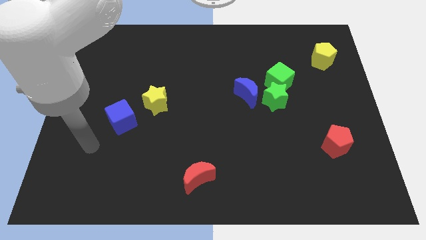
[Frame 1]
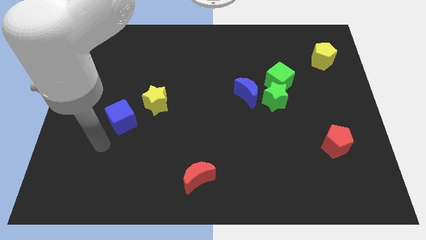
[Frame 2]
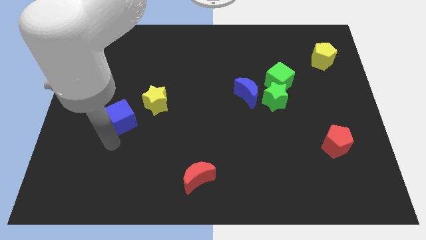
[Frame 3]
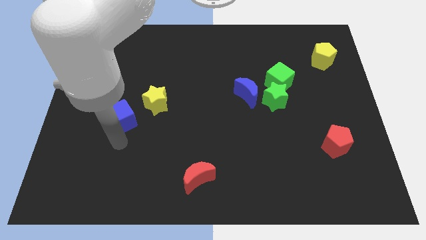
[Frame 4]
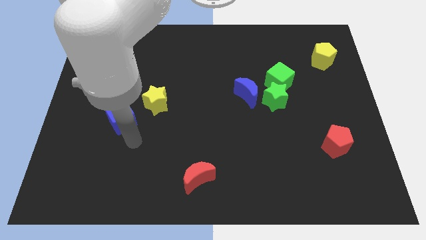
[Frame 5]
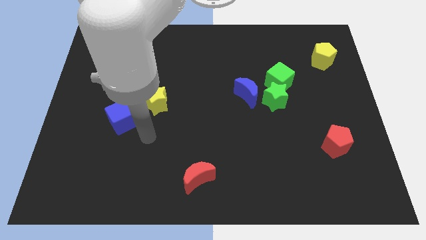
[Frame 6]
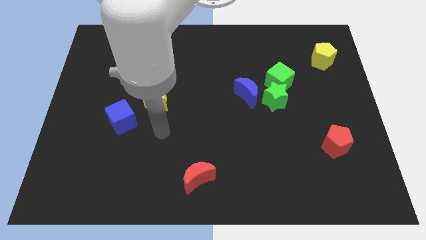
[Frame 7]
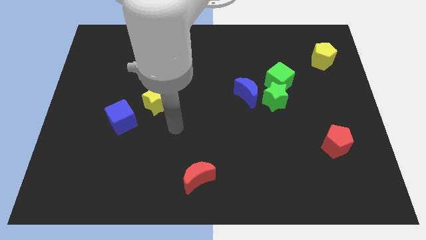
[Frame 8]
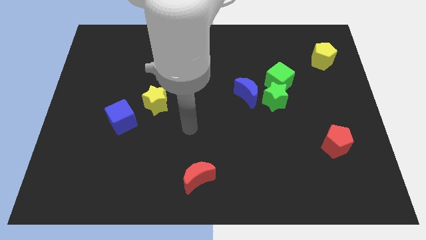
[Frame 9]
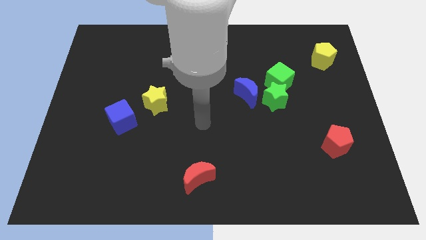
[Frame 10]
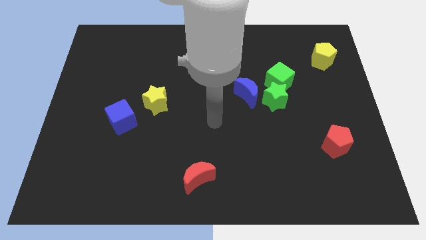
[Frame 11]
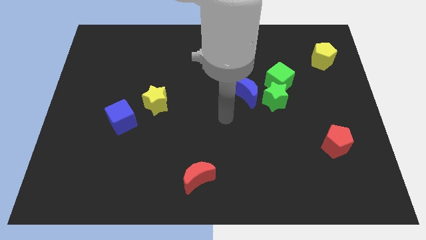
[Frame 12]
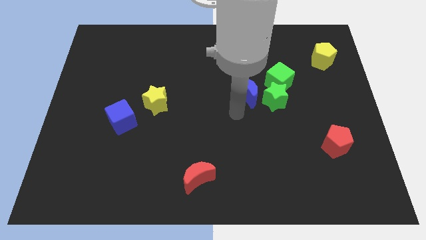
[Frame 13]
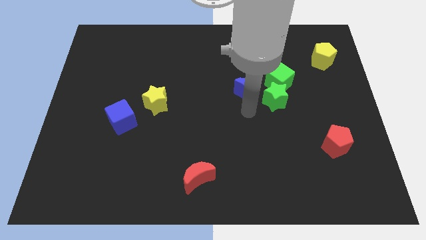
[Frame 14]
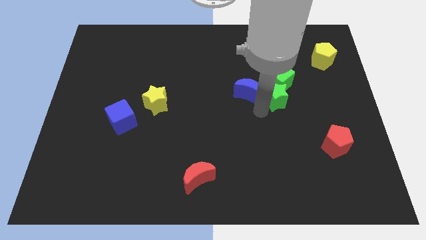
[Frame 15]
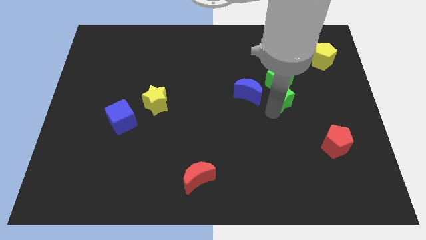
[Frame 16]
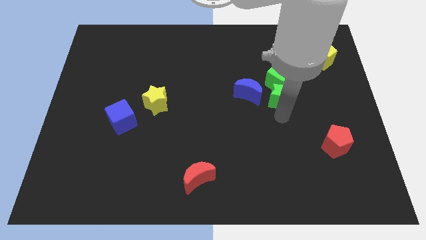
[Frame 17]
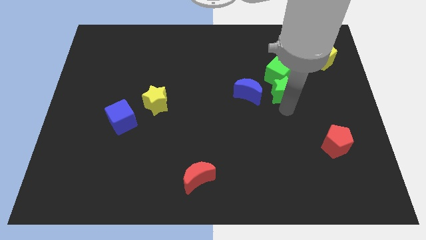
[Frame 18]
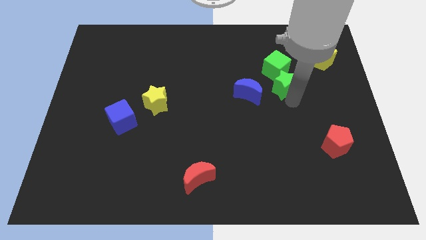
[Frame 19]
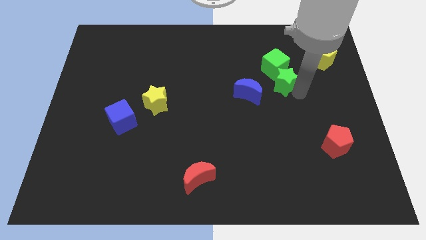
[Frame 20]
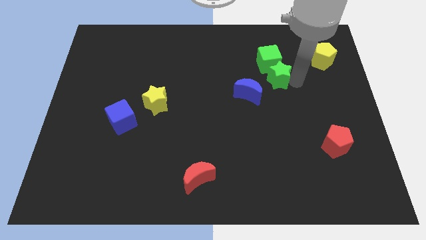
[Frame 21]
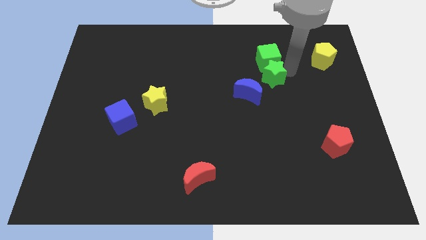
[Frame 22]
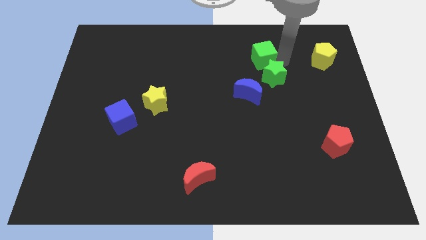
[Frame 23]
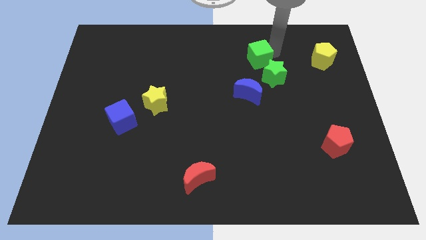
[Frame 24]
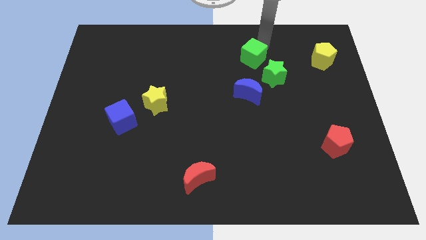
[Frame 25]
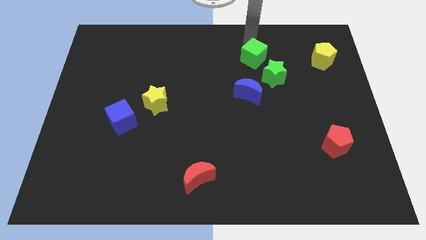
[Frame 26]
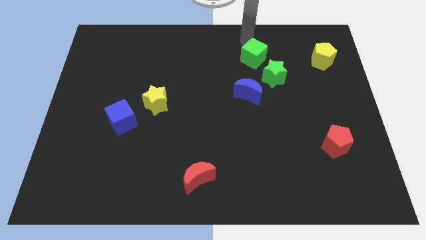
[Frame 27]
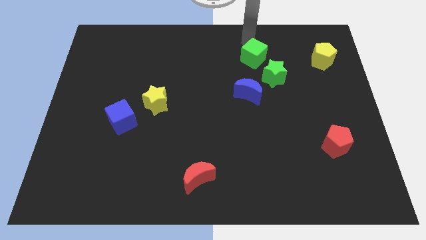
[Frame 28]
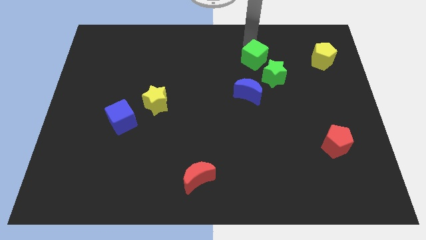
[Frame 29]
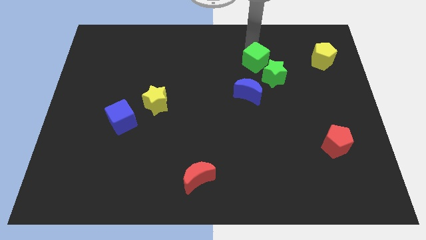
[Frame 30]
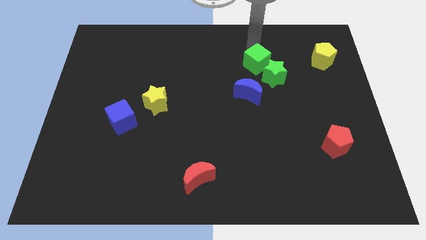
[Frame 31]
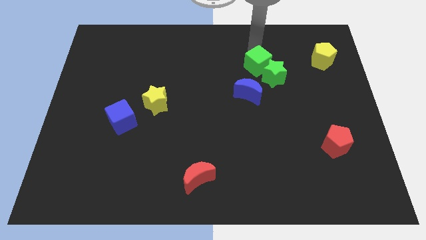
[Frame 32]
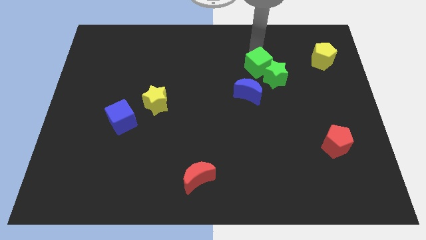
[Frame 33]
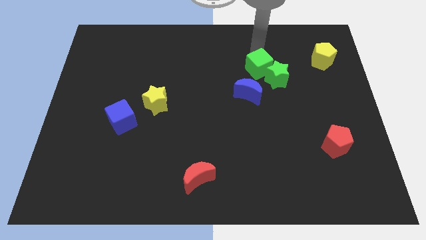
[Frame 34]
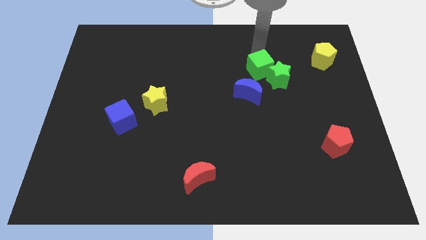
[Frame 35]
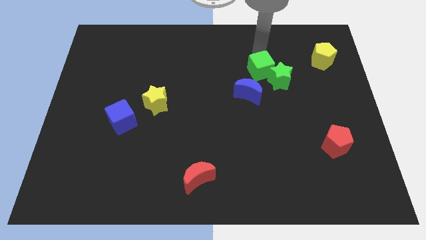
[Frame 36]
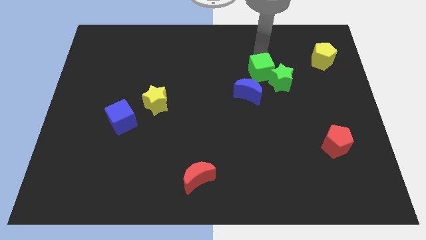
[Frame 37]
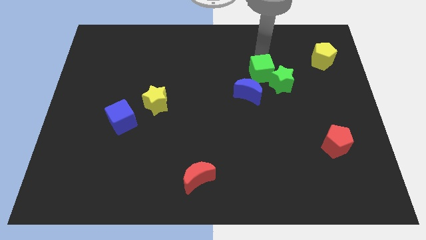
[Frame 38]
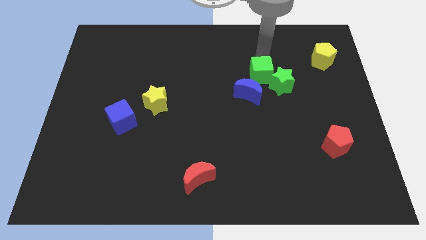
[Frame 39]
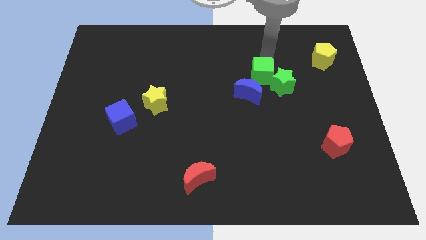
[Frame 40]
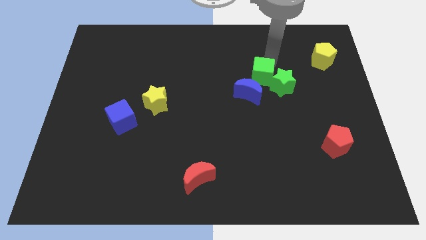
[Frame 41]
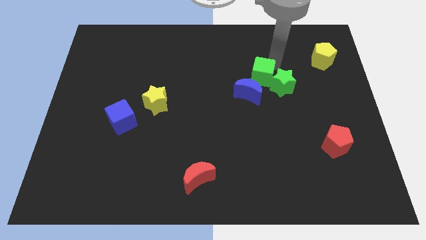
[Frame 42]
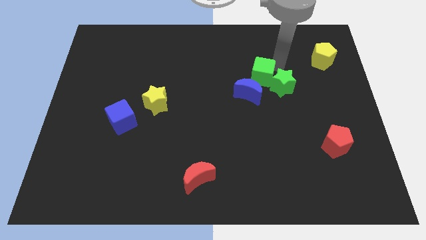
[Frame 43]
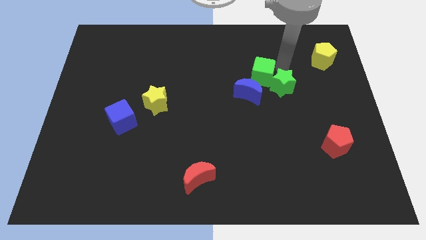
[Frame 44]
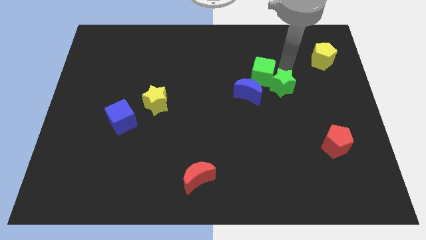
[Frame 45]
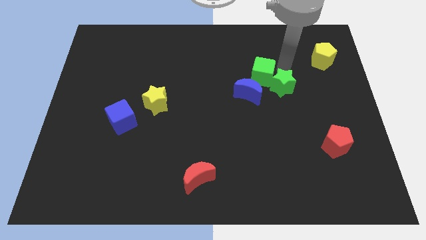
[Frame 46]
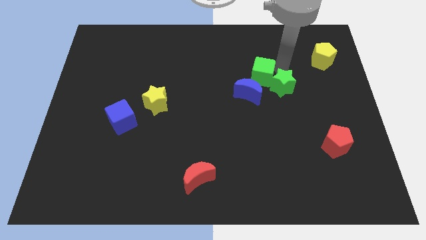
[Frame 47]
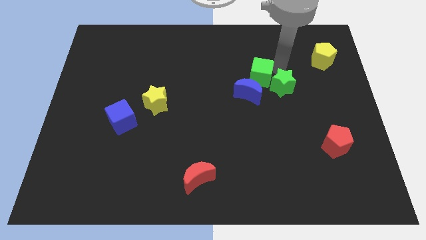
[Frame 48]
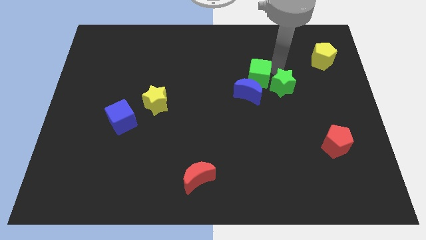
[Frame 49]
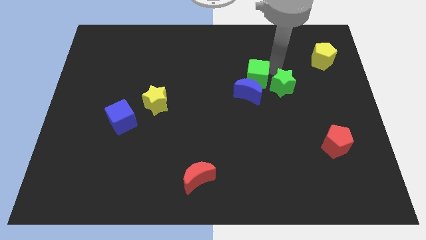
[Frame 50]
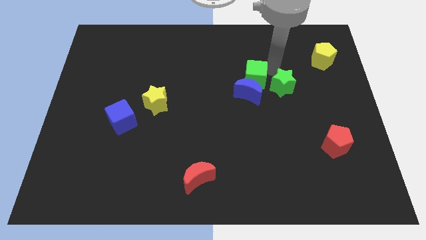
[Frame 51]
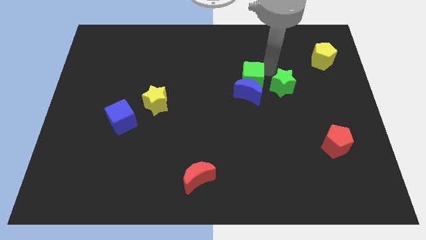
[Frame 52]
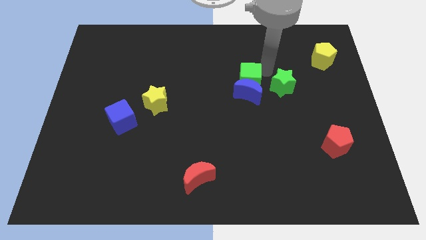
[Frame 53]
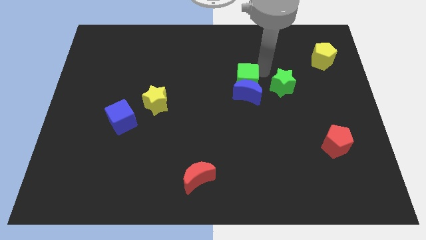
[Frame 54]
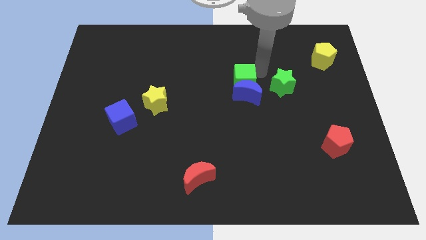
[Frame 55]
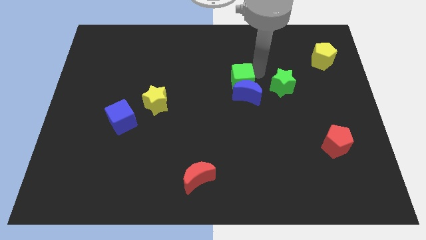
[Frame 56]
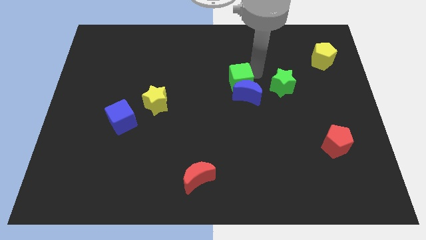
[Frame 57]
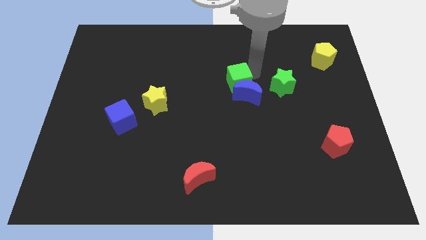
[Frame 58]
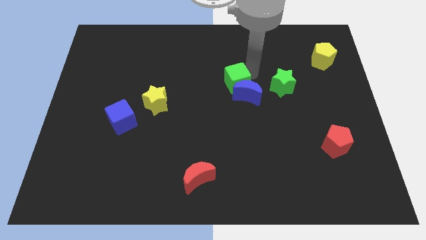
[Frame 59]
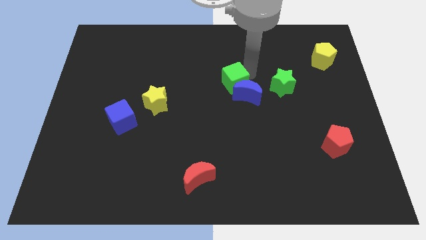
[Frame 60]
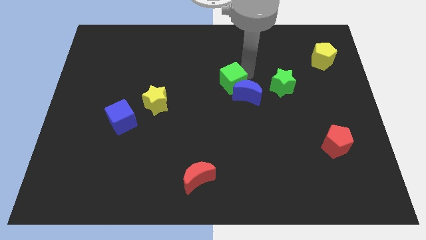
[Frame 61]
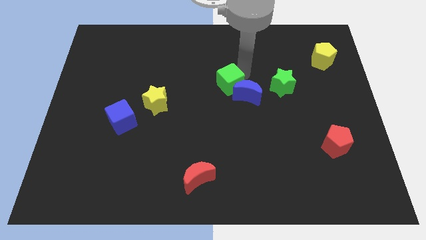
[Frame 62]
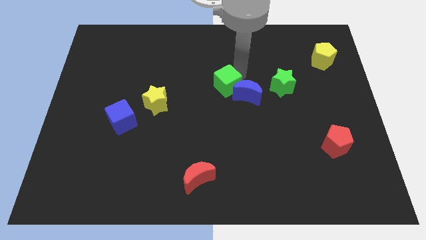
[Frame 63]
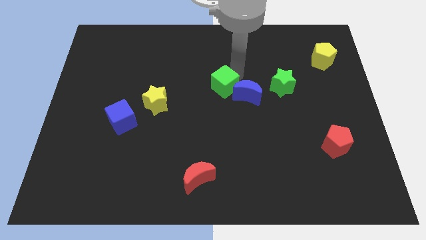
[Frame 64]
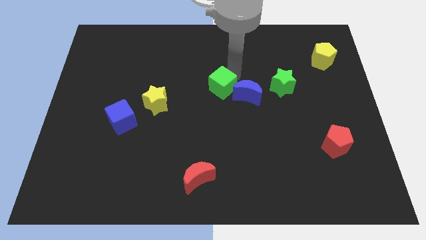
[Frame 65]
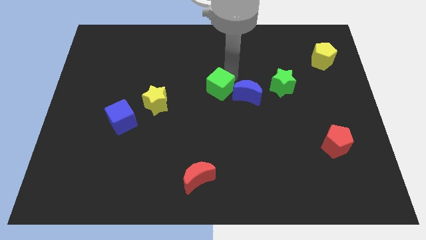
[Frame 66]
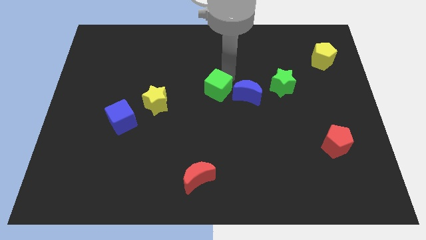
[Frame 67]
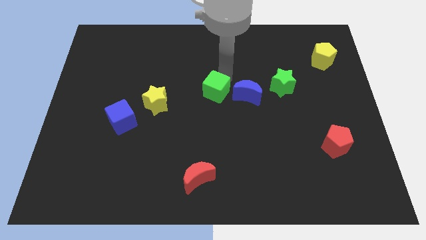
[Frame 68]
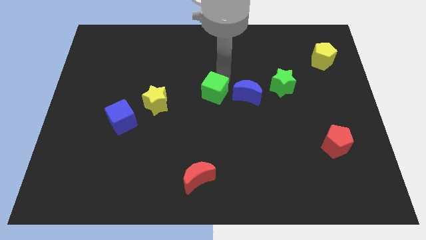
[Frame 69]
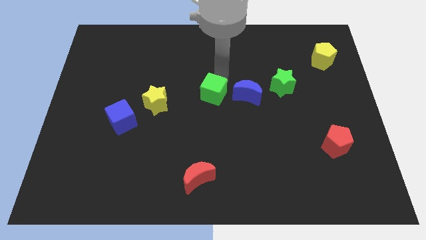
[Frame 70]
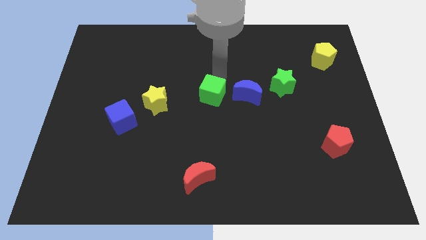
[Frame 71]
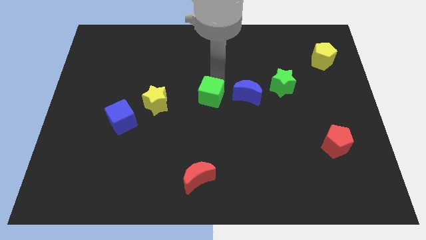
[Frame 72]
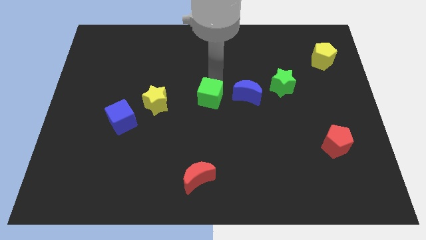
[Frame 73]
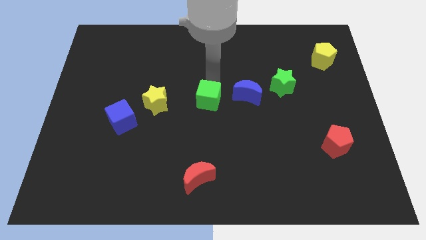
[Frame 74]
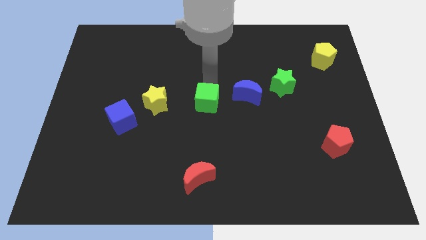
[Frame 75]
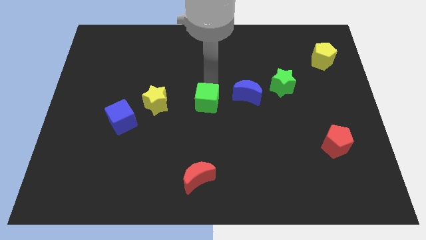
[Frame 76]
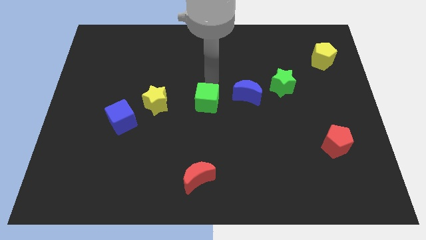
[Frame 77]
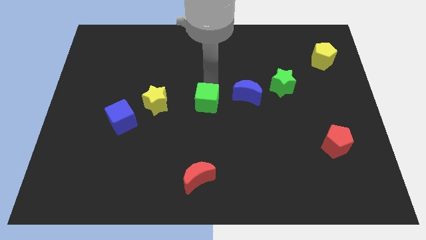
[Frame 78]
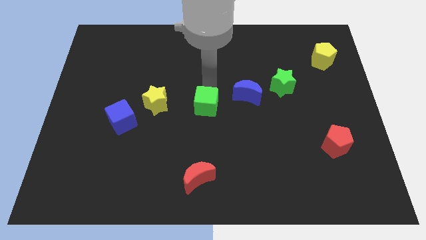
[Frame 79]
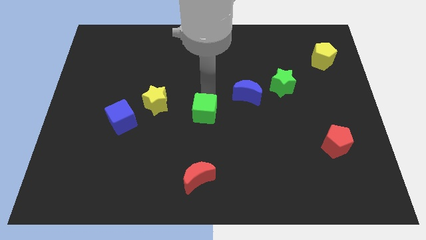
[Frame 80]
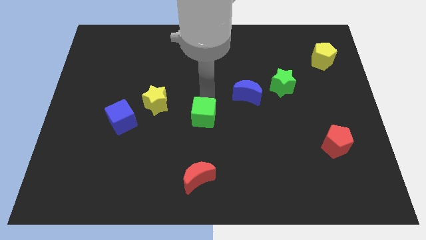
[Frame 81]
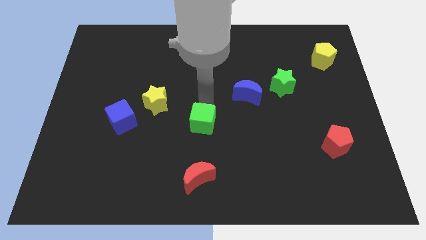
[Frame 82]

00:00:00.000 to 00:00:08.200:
move the green cube downwards and then left
